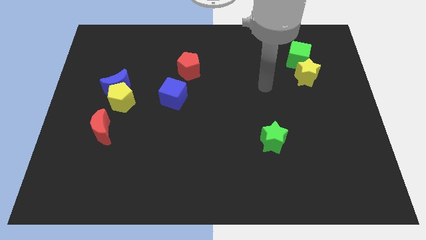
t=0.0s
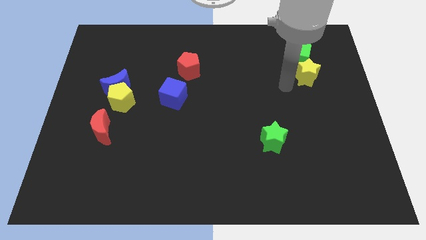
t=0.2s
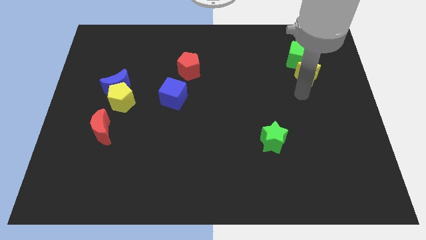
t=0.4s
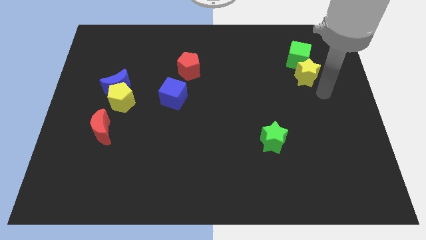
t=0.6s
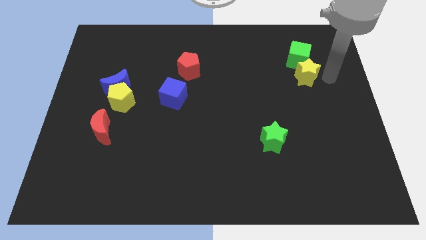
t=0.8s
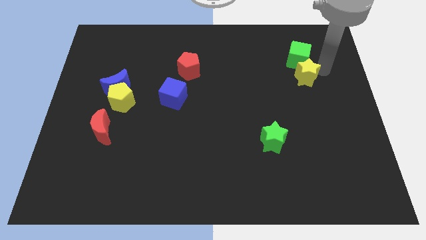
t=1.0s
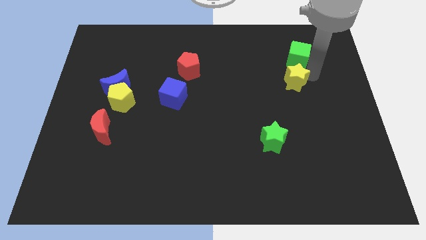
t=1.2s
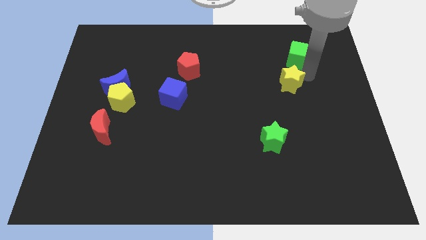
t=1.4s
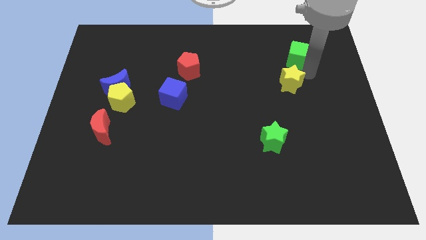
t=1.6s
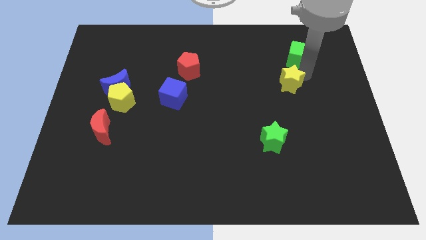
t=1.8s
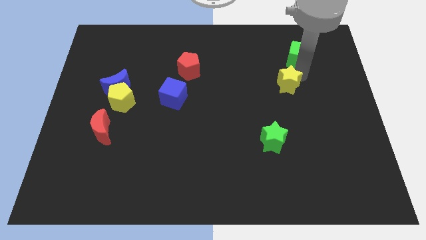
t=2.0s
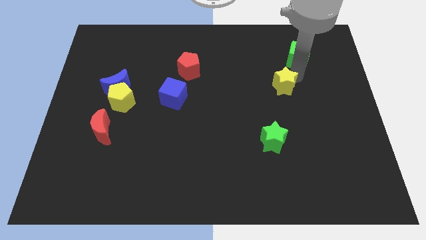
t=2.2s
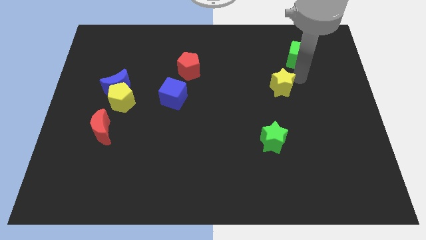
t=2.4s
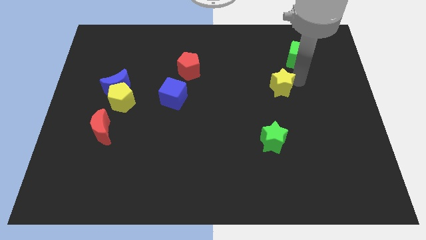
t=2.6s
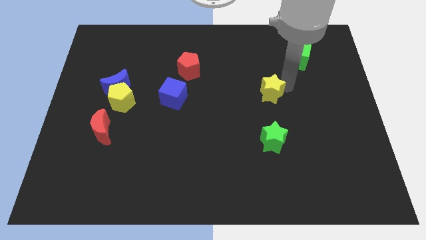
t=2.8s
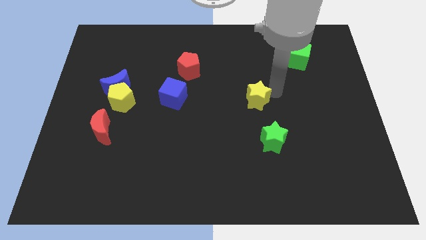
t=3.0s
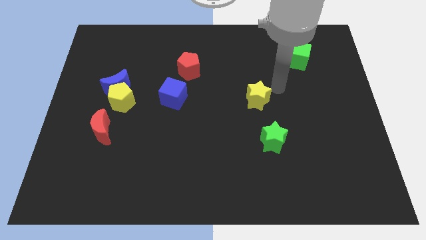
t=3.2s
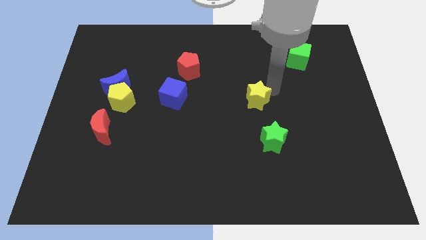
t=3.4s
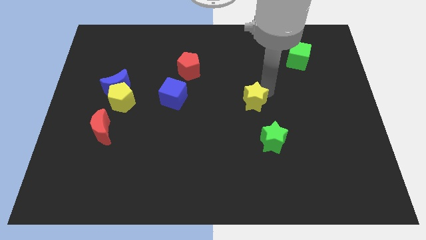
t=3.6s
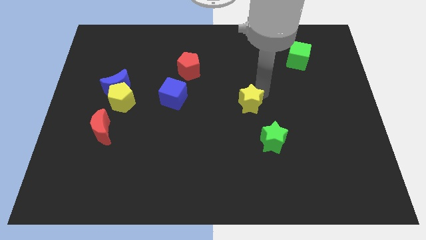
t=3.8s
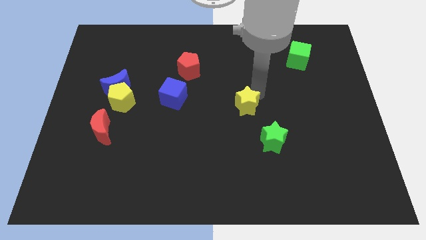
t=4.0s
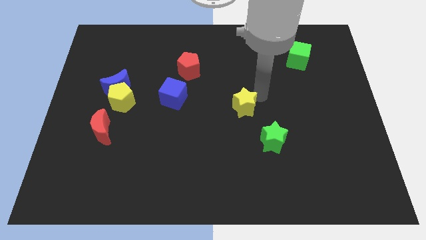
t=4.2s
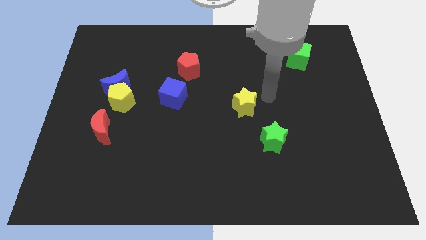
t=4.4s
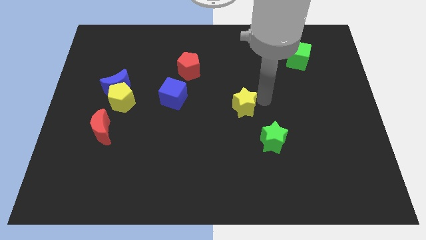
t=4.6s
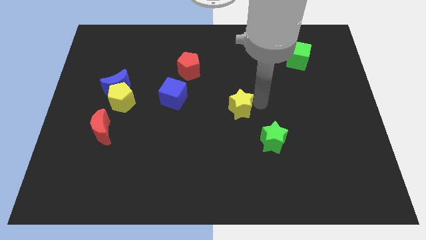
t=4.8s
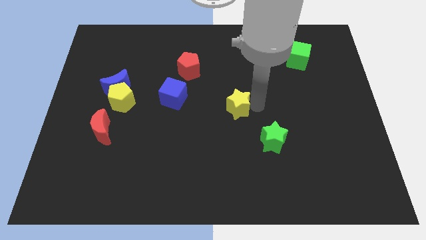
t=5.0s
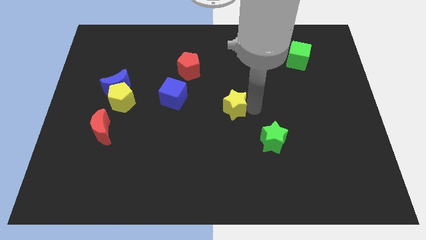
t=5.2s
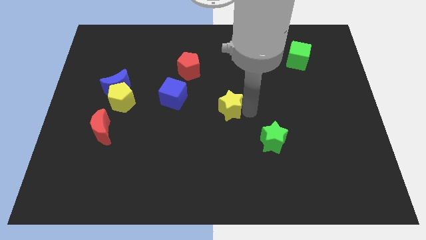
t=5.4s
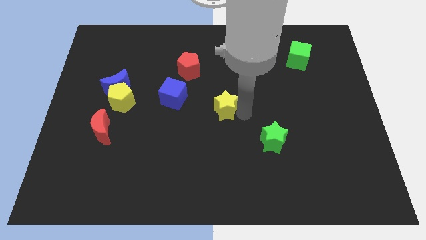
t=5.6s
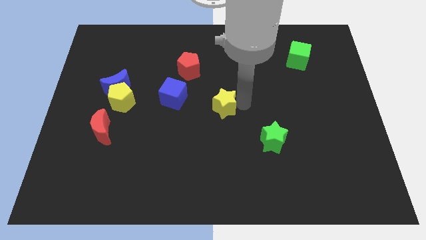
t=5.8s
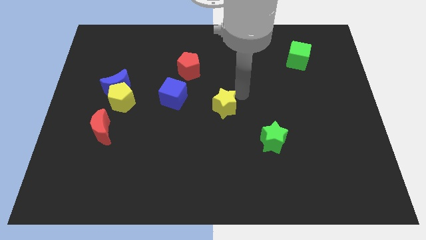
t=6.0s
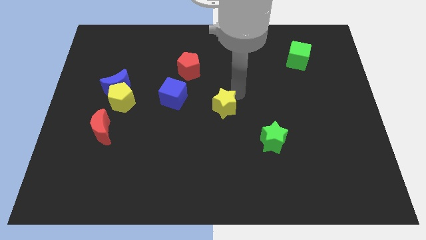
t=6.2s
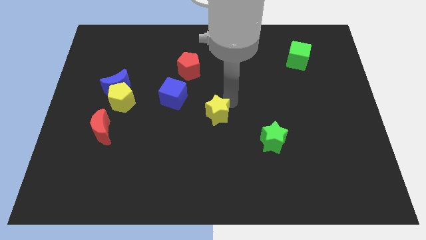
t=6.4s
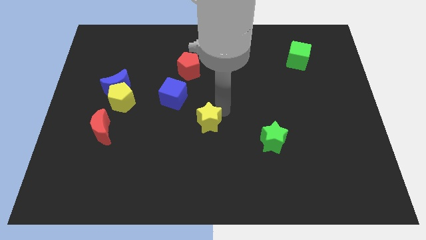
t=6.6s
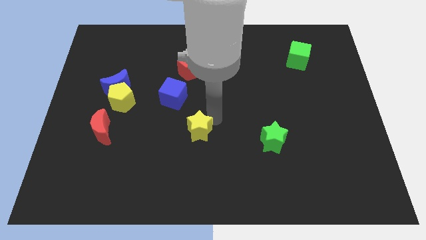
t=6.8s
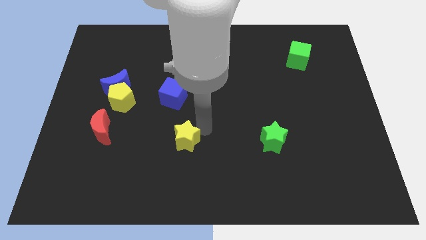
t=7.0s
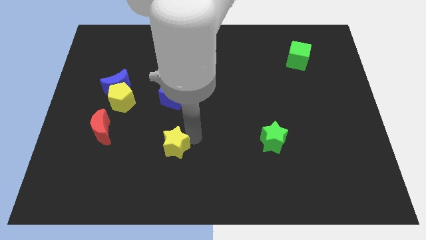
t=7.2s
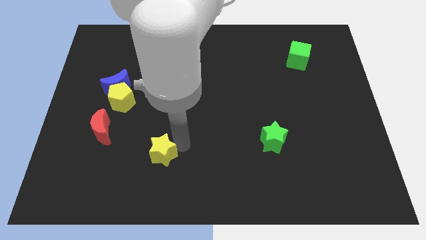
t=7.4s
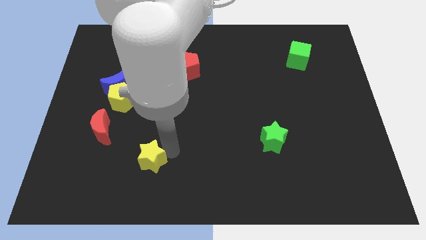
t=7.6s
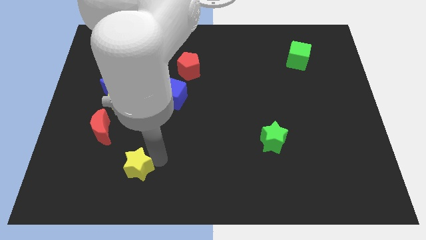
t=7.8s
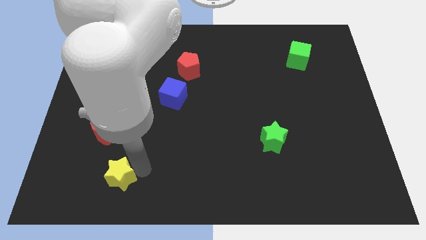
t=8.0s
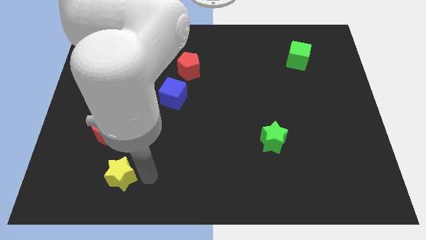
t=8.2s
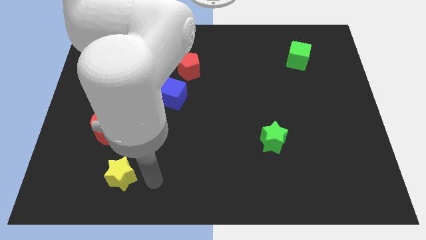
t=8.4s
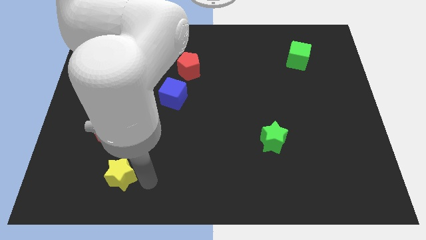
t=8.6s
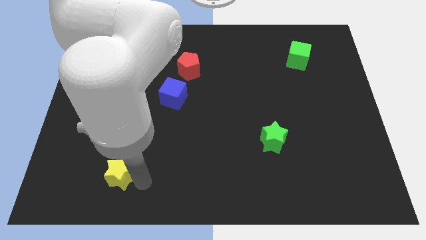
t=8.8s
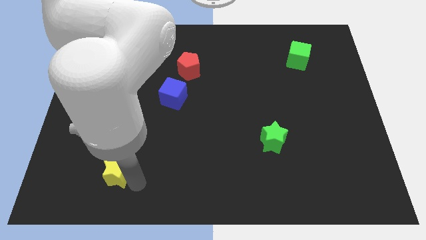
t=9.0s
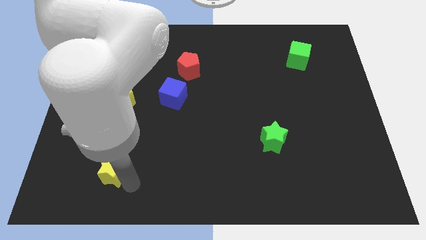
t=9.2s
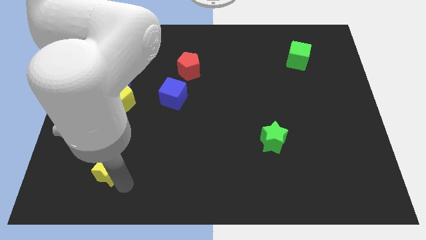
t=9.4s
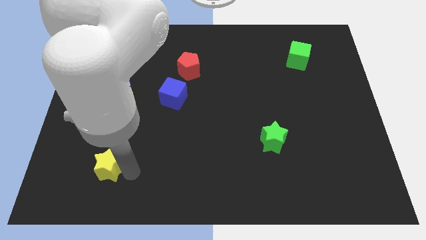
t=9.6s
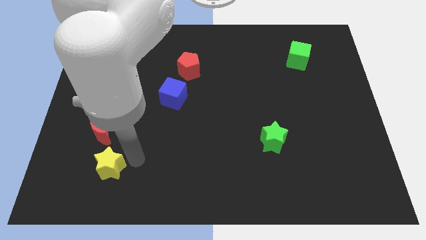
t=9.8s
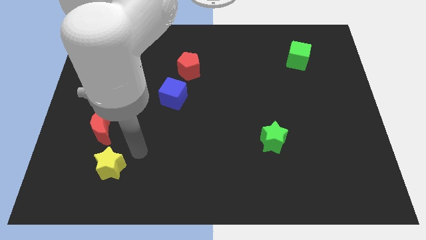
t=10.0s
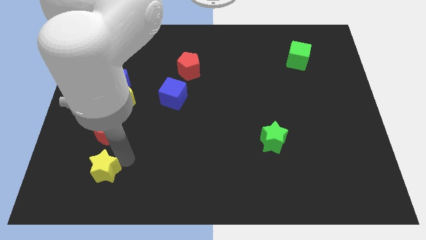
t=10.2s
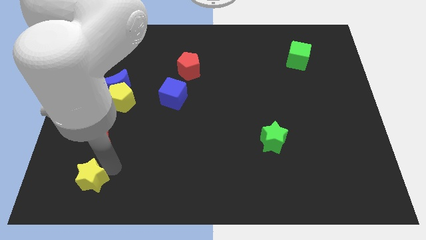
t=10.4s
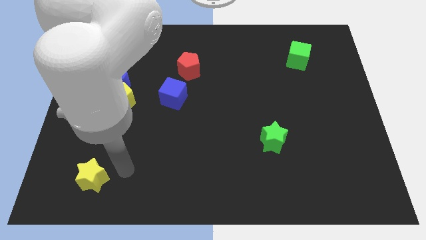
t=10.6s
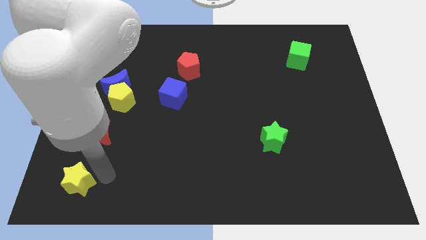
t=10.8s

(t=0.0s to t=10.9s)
push the yellow star to the lower left corner

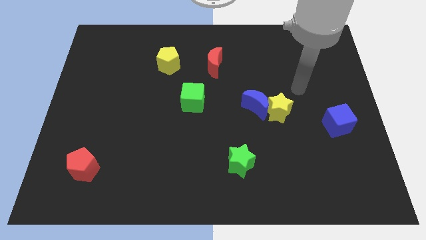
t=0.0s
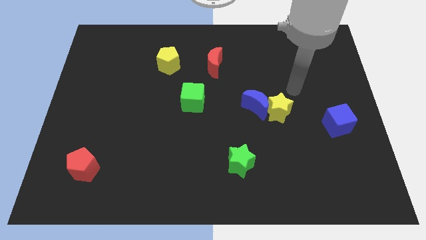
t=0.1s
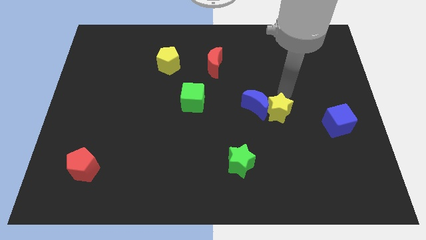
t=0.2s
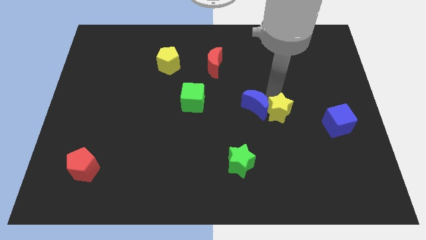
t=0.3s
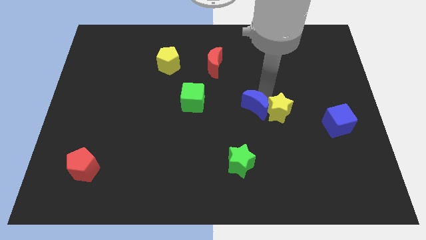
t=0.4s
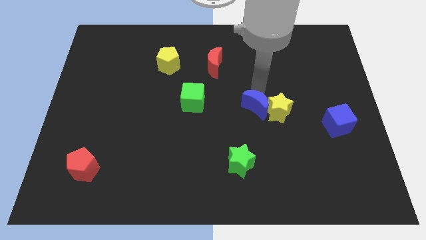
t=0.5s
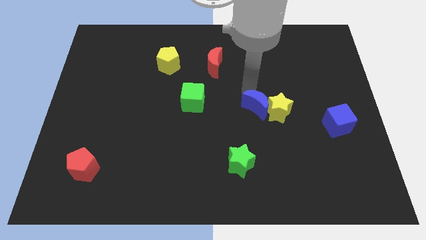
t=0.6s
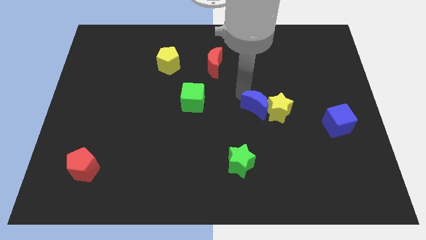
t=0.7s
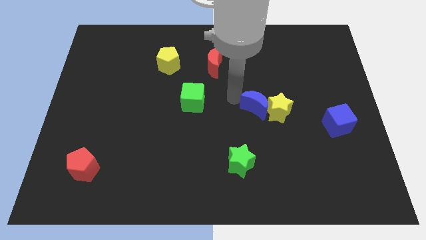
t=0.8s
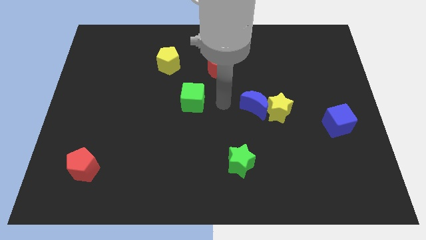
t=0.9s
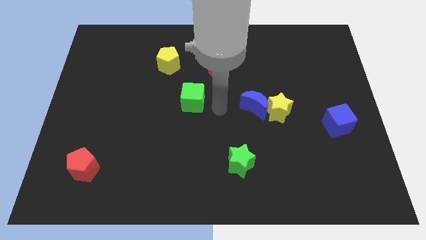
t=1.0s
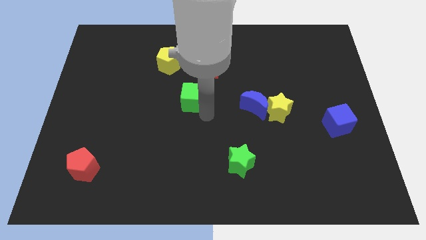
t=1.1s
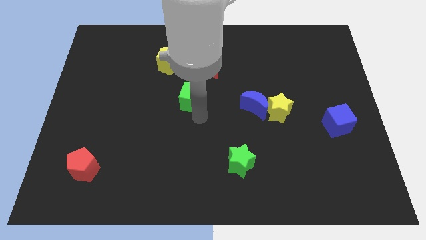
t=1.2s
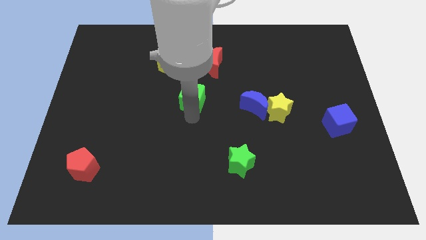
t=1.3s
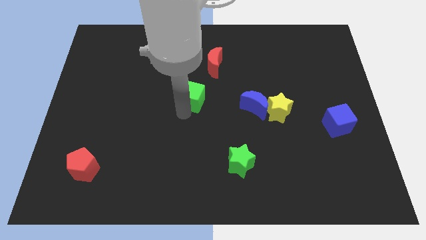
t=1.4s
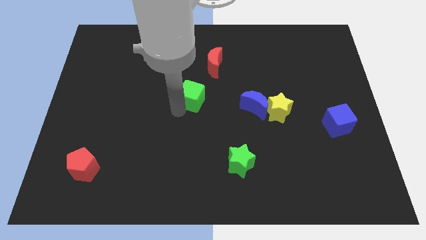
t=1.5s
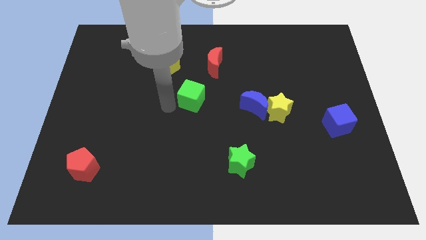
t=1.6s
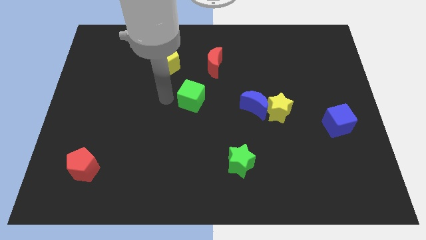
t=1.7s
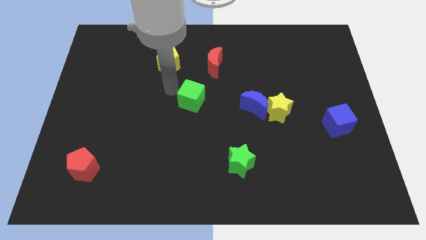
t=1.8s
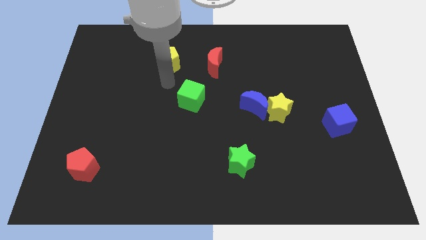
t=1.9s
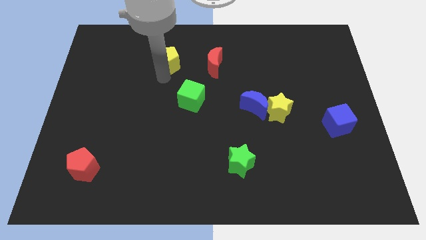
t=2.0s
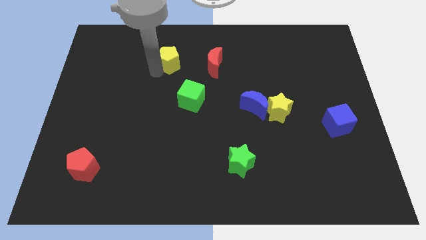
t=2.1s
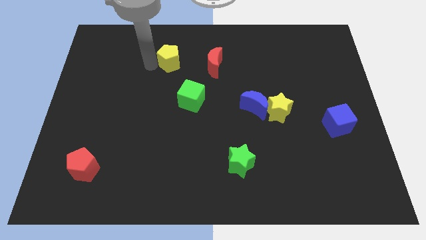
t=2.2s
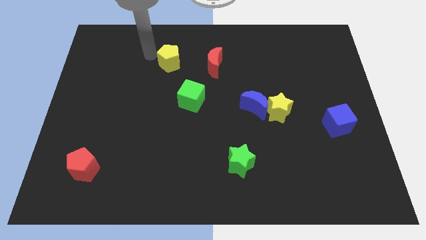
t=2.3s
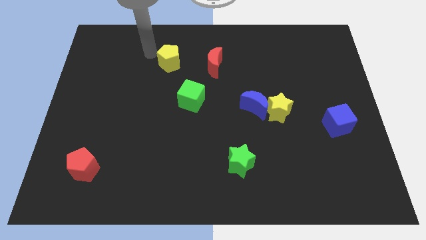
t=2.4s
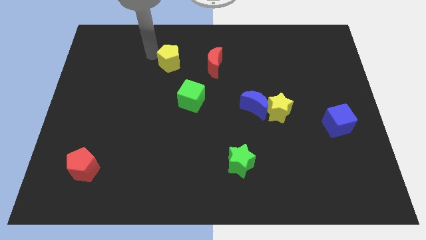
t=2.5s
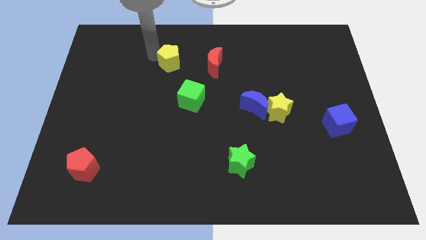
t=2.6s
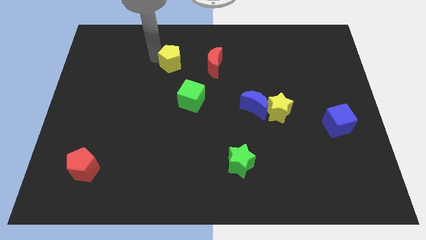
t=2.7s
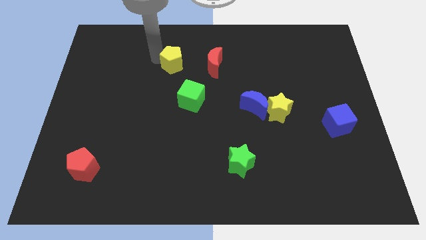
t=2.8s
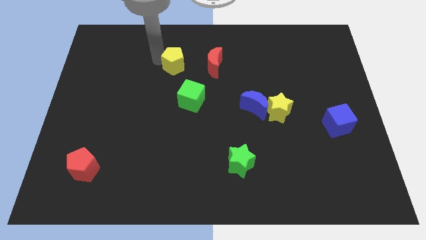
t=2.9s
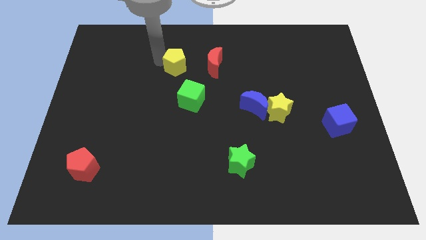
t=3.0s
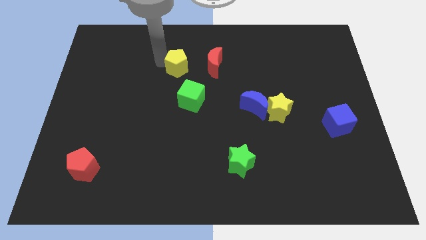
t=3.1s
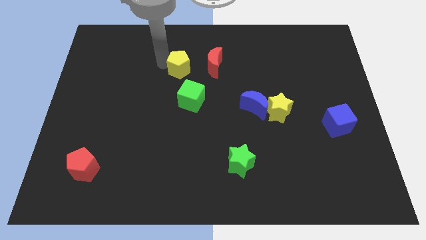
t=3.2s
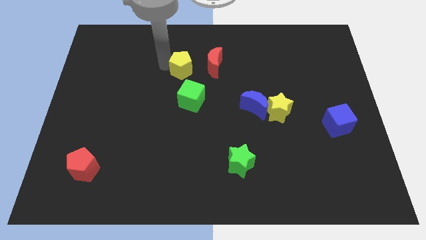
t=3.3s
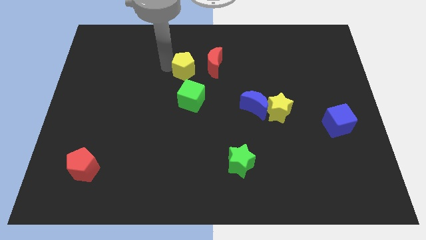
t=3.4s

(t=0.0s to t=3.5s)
move the yellow pentagon to the middle of the board
